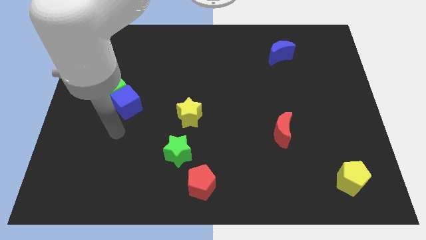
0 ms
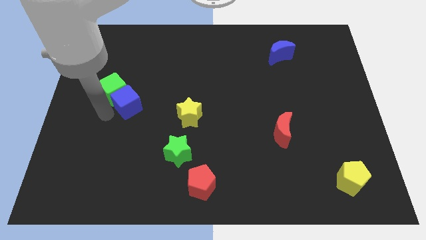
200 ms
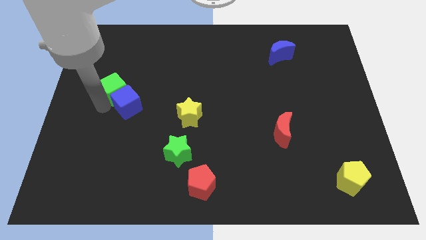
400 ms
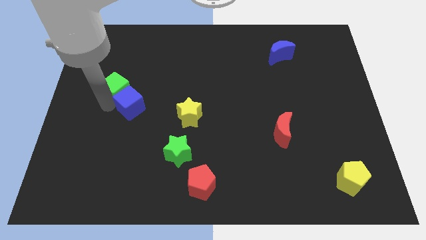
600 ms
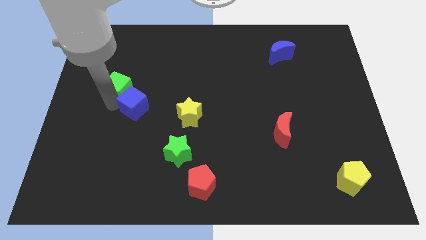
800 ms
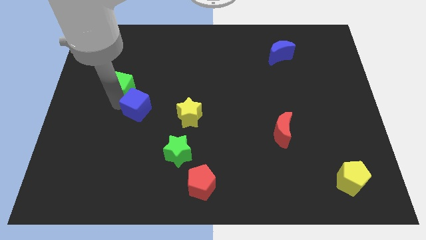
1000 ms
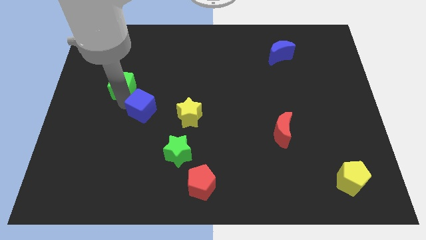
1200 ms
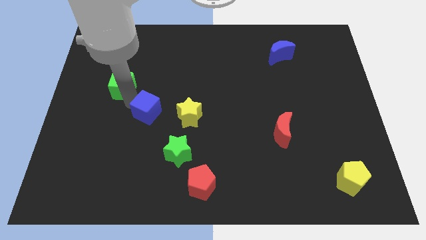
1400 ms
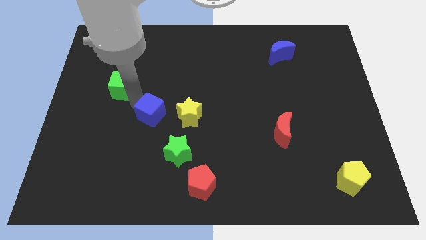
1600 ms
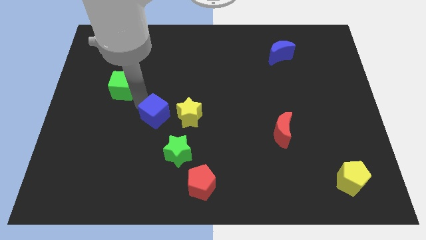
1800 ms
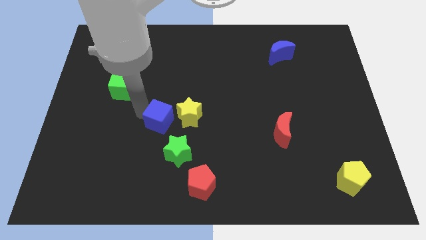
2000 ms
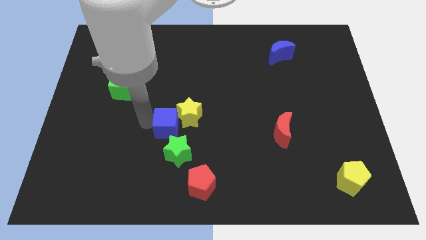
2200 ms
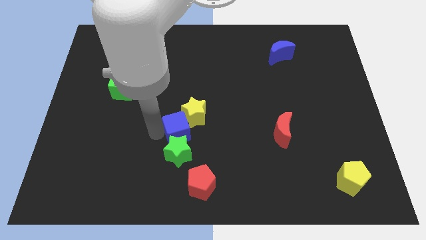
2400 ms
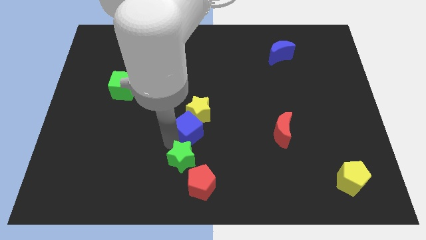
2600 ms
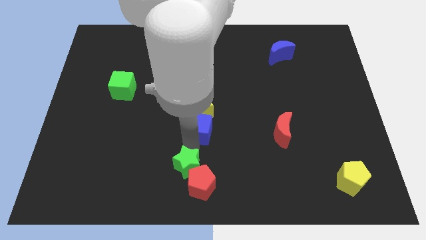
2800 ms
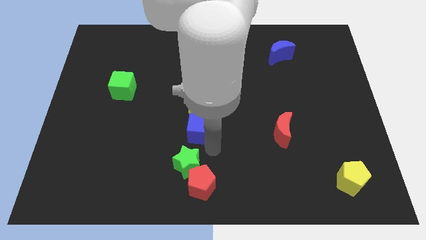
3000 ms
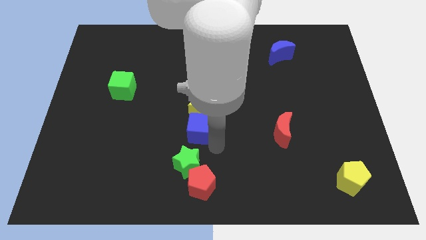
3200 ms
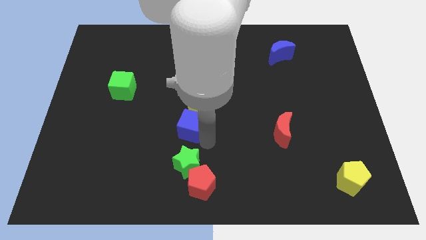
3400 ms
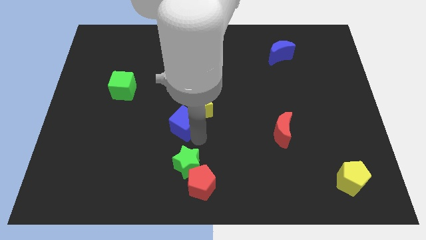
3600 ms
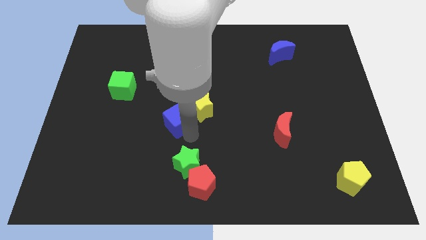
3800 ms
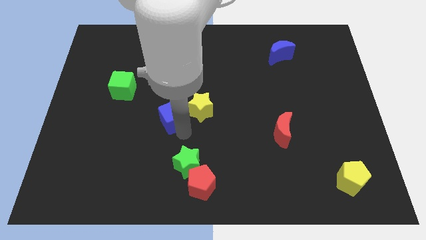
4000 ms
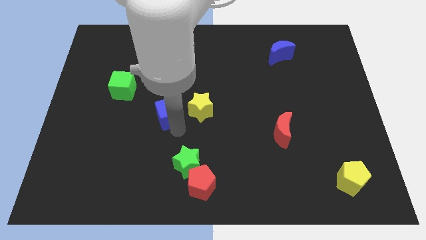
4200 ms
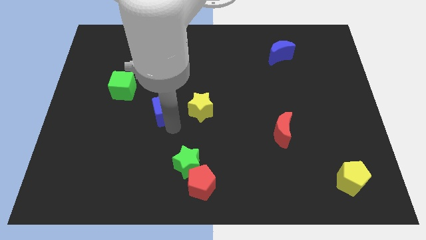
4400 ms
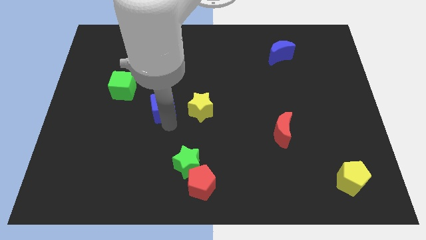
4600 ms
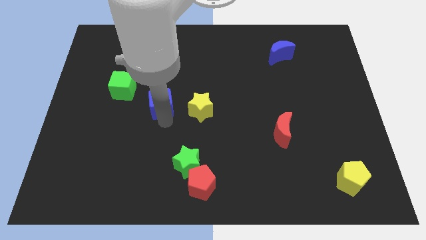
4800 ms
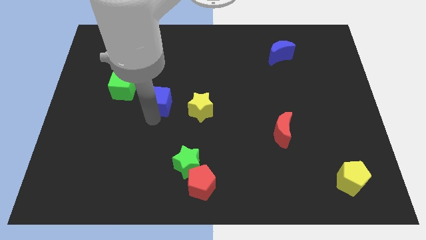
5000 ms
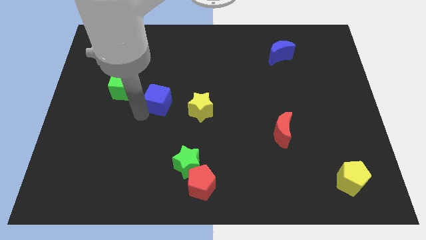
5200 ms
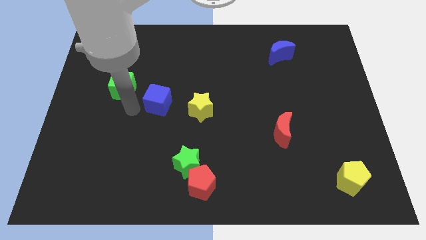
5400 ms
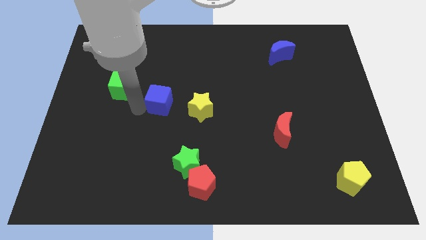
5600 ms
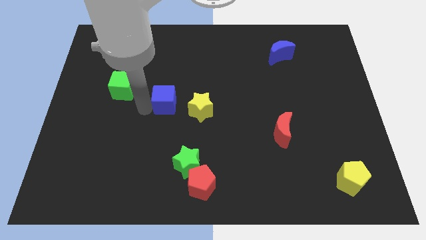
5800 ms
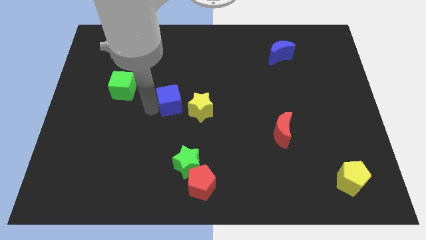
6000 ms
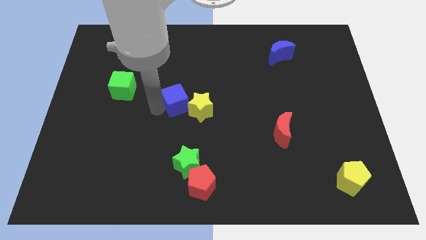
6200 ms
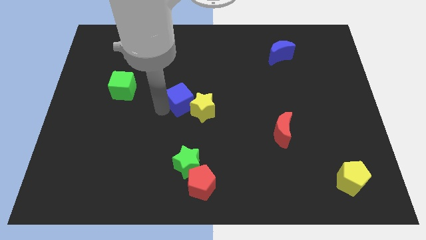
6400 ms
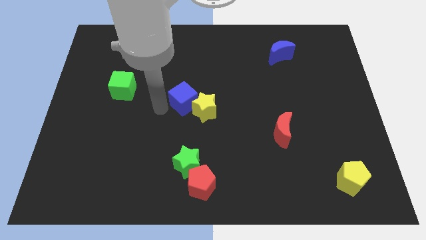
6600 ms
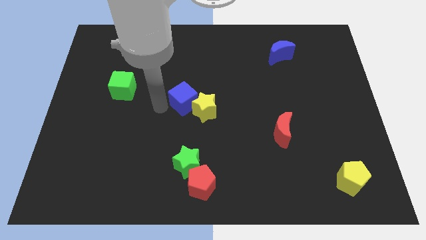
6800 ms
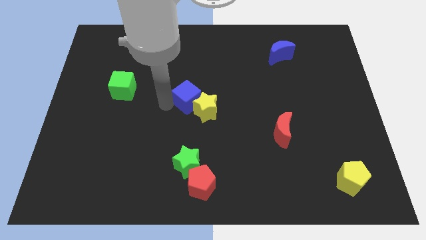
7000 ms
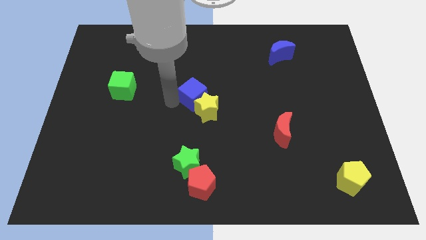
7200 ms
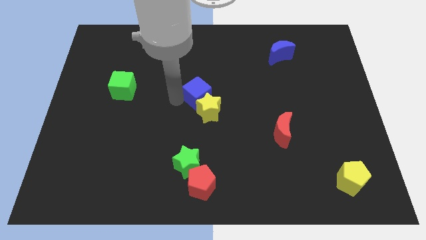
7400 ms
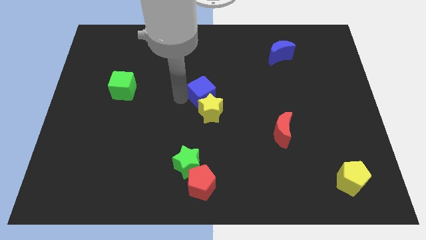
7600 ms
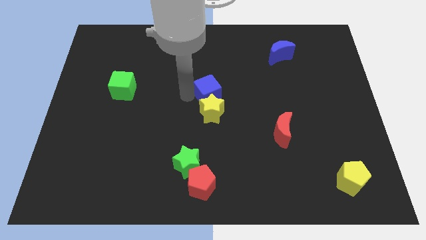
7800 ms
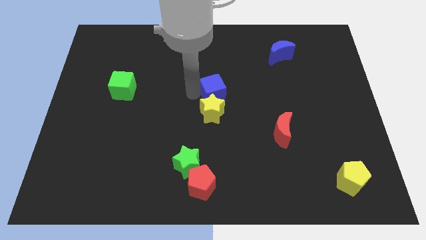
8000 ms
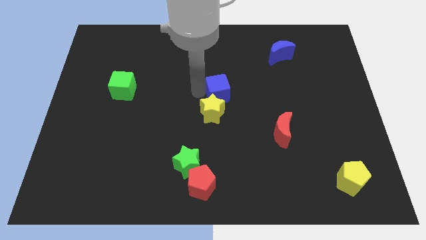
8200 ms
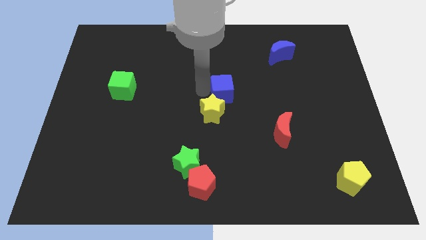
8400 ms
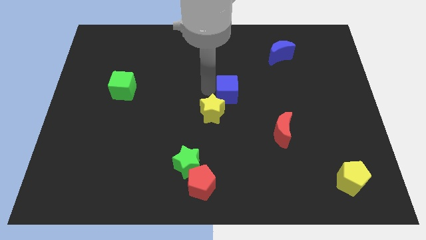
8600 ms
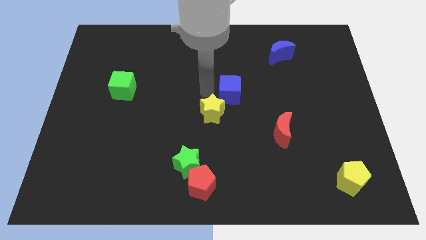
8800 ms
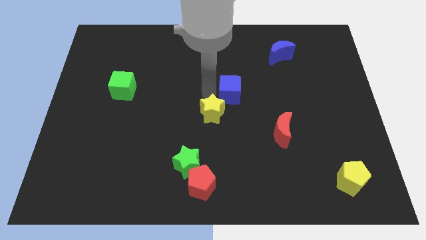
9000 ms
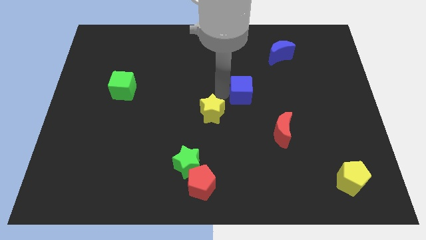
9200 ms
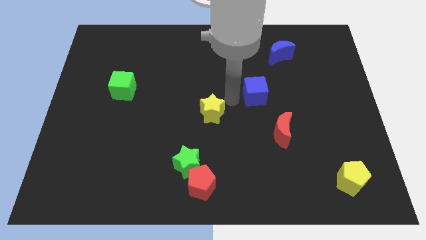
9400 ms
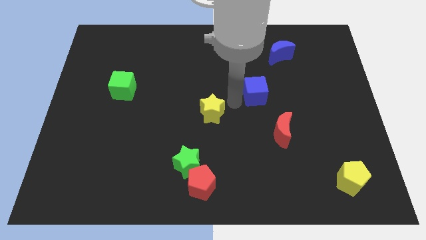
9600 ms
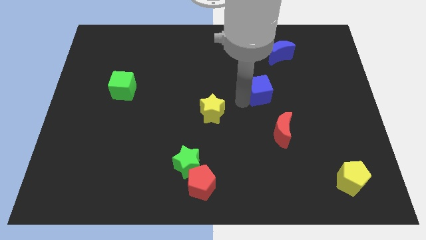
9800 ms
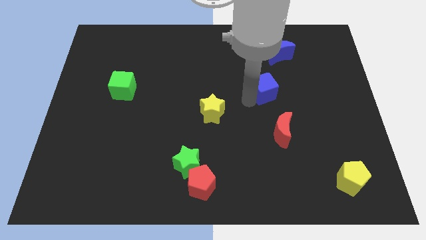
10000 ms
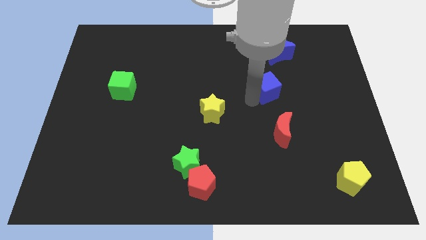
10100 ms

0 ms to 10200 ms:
put the blue cube below the blue moon

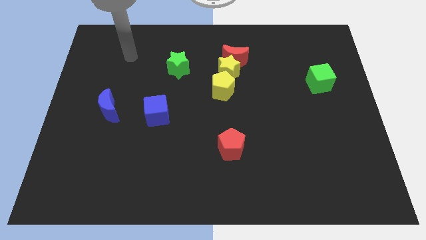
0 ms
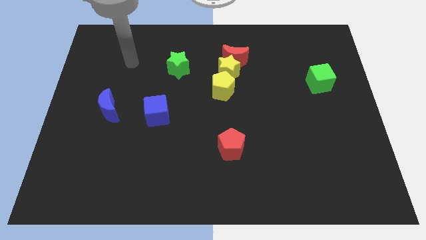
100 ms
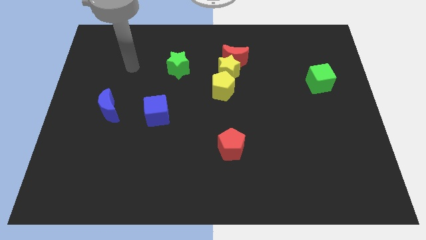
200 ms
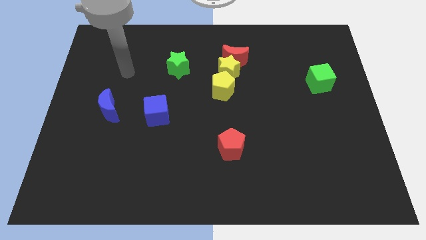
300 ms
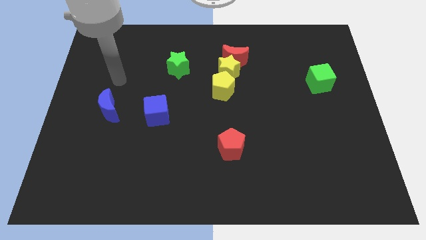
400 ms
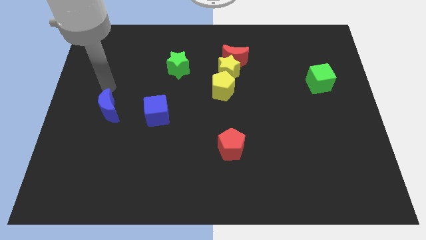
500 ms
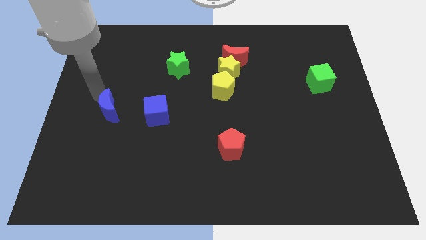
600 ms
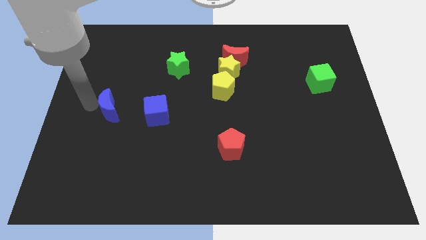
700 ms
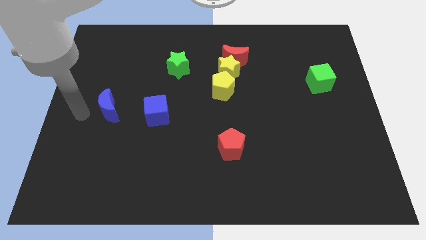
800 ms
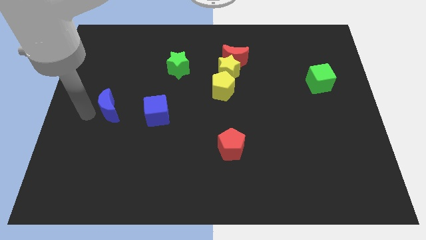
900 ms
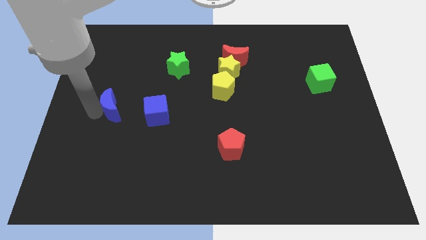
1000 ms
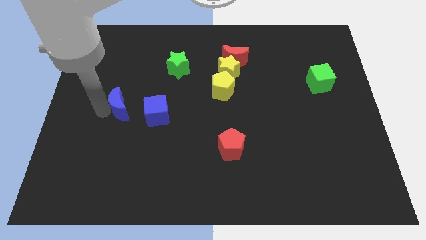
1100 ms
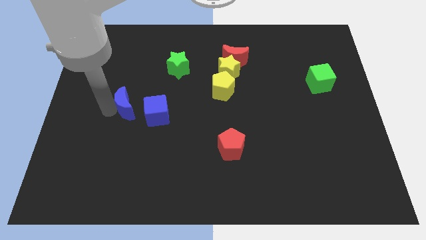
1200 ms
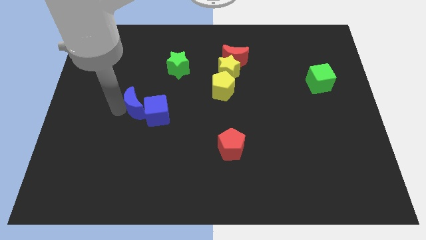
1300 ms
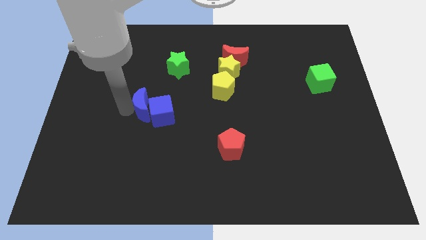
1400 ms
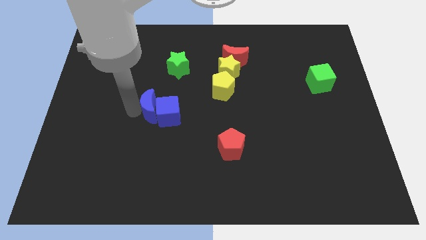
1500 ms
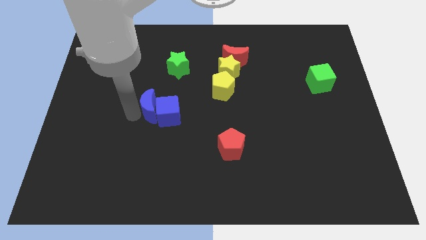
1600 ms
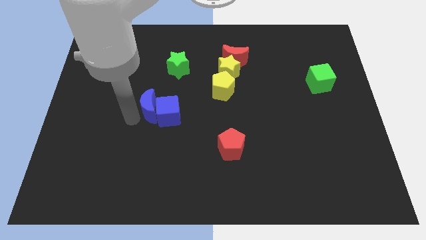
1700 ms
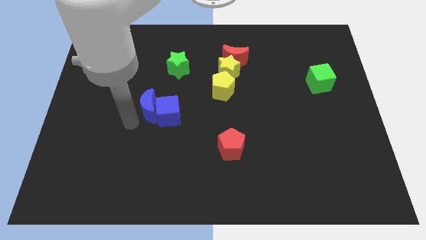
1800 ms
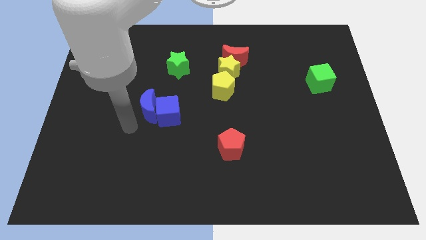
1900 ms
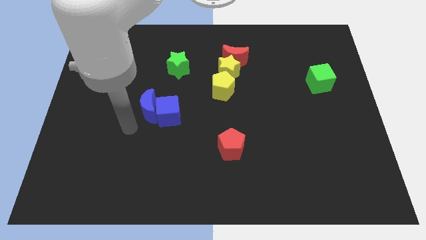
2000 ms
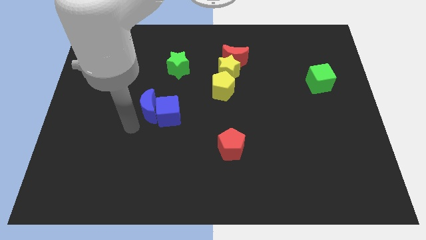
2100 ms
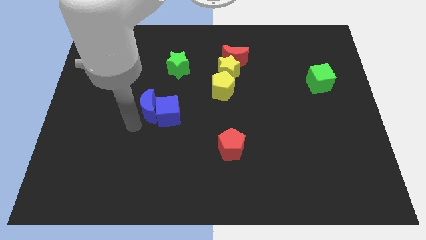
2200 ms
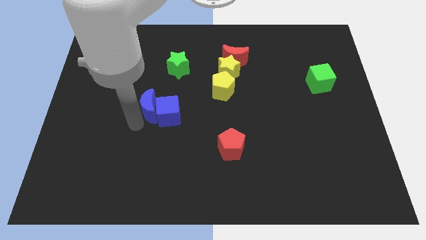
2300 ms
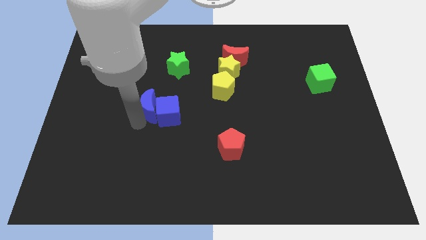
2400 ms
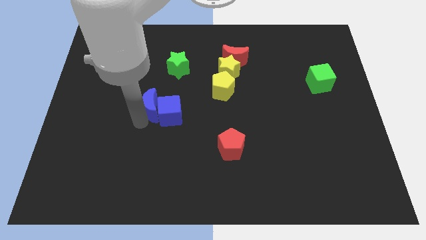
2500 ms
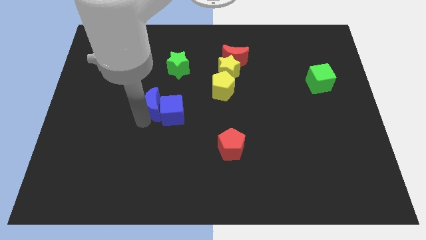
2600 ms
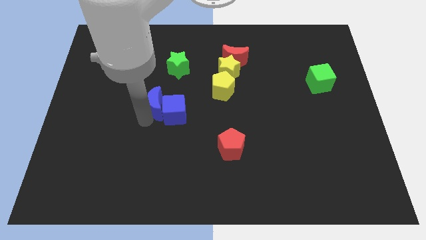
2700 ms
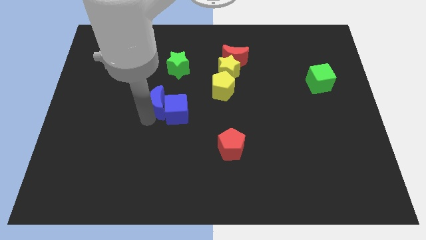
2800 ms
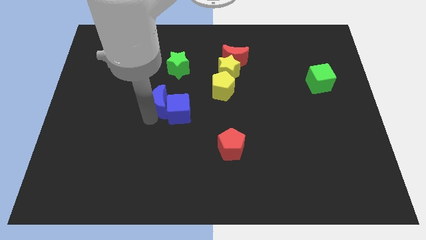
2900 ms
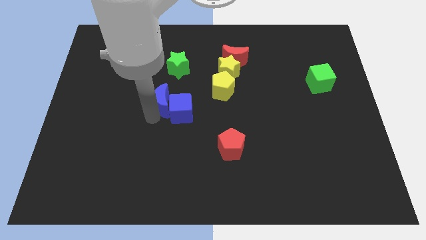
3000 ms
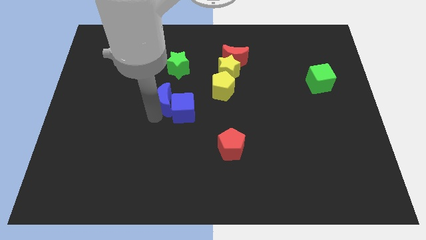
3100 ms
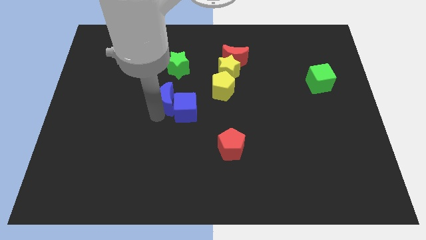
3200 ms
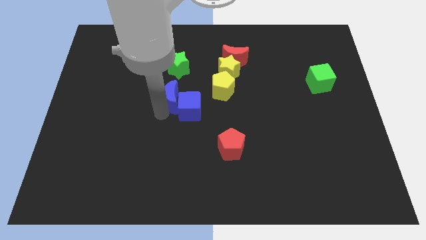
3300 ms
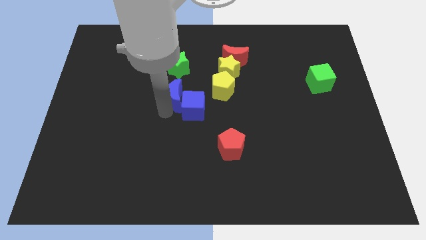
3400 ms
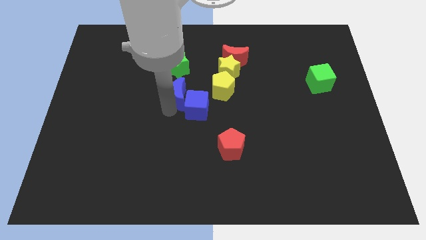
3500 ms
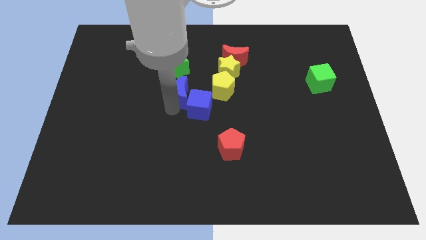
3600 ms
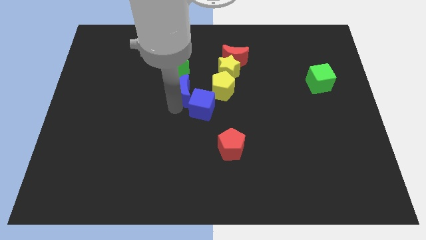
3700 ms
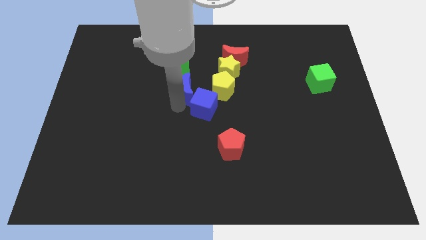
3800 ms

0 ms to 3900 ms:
move the blue moon to the bottom left side of the yellow star
